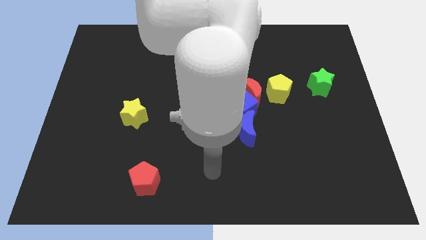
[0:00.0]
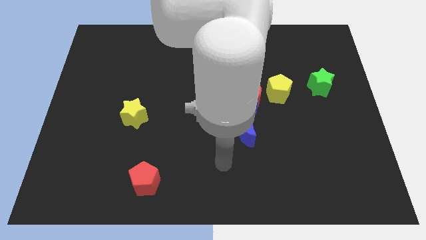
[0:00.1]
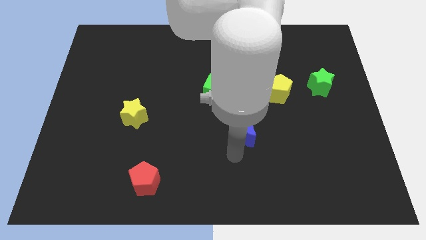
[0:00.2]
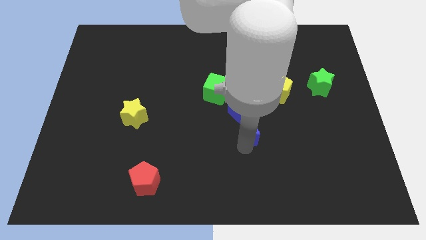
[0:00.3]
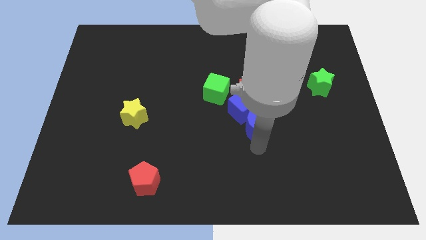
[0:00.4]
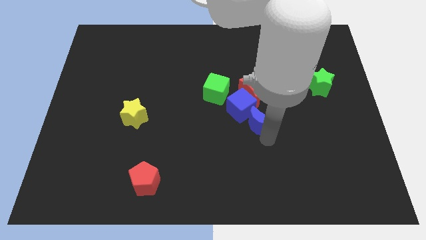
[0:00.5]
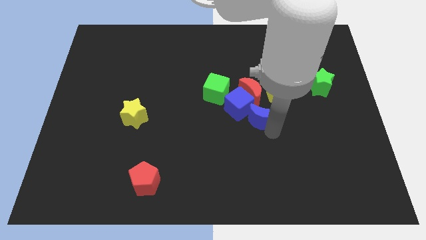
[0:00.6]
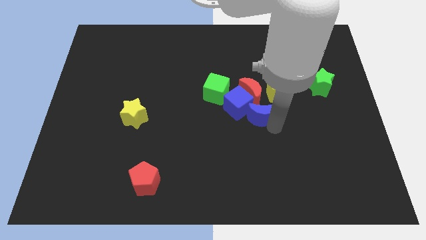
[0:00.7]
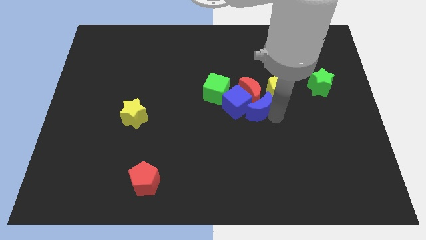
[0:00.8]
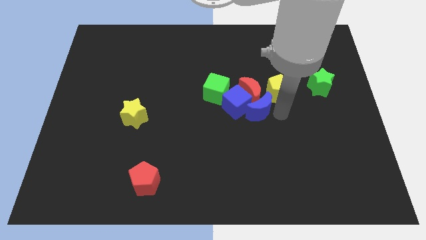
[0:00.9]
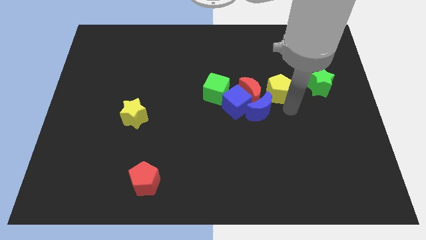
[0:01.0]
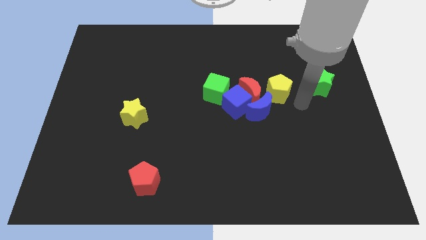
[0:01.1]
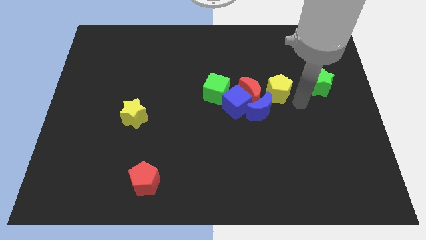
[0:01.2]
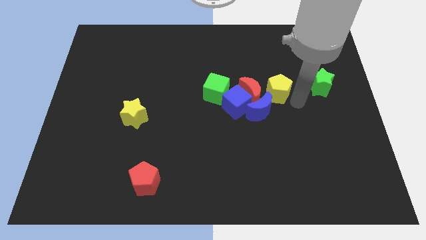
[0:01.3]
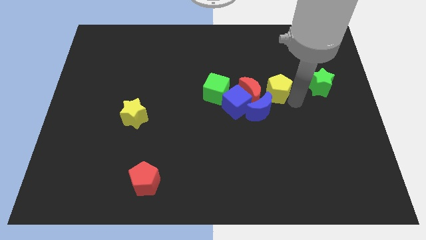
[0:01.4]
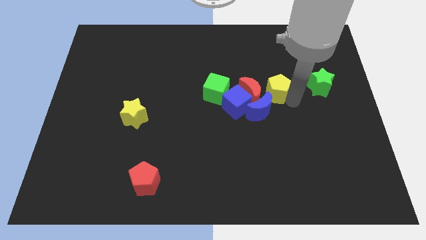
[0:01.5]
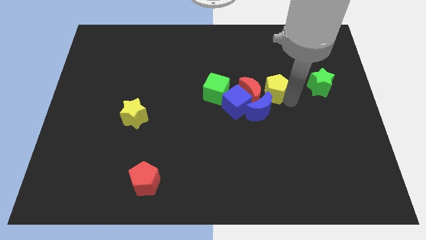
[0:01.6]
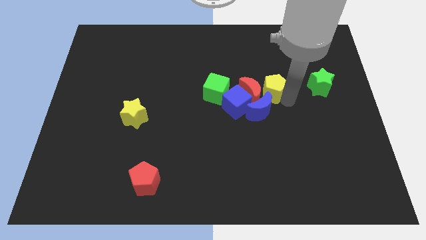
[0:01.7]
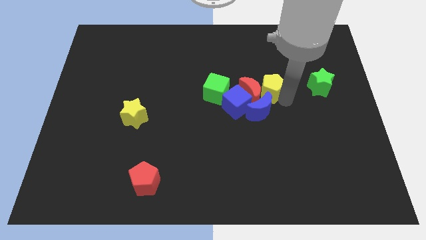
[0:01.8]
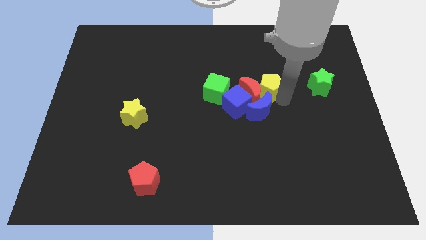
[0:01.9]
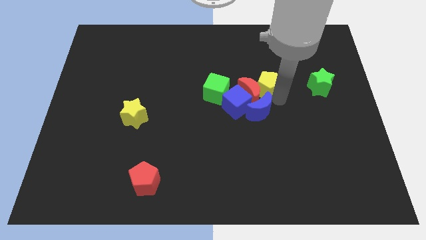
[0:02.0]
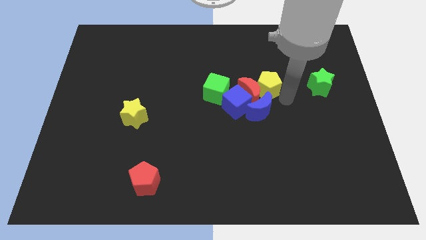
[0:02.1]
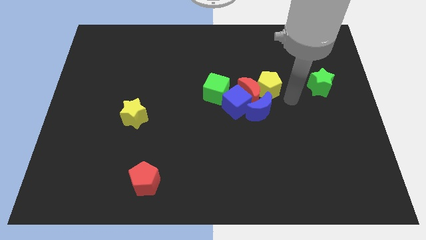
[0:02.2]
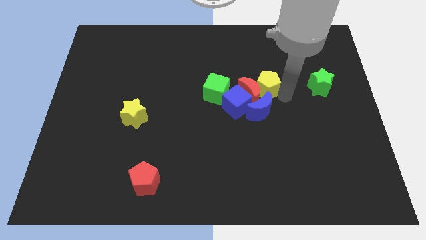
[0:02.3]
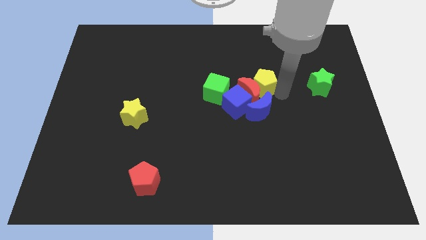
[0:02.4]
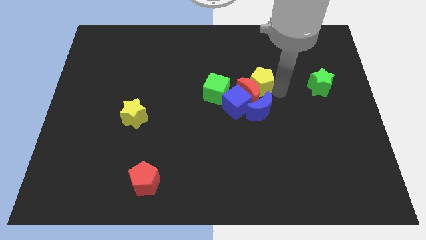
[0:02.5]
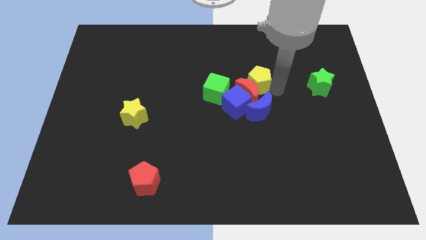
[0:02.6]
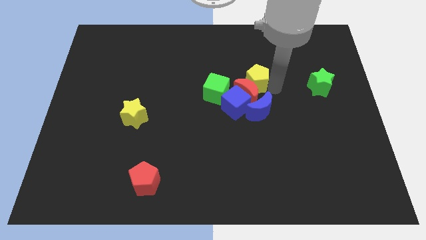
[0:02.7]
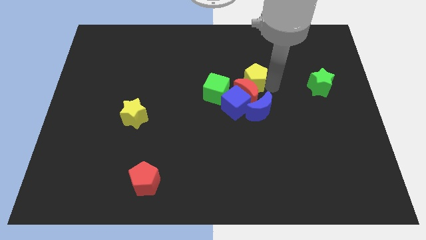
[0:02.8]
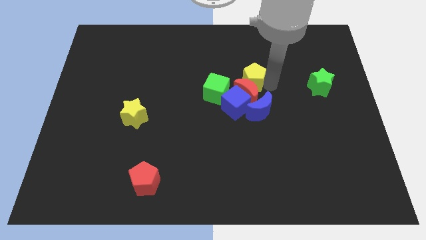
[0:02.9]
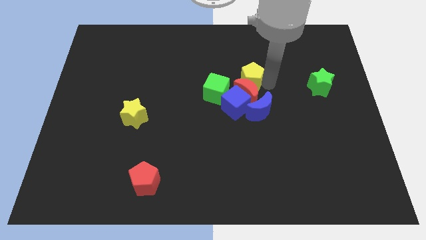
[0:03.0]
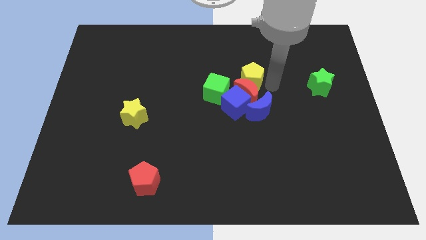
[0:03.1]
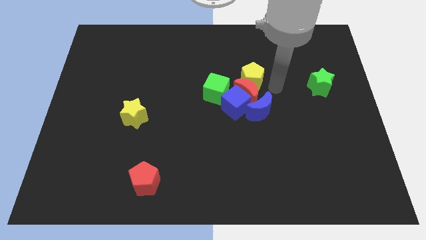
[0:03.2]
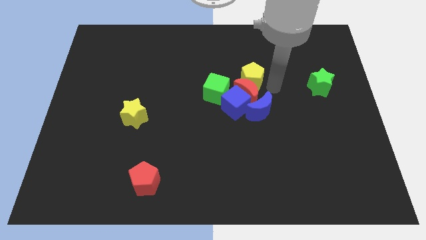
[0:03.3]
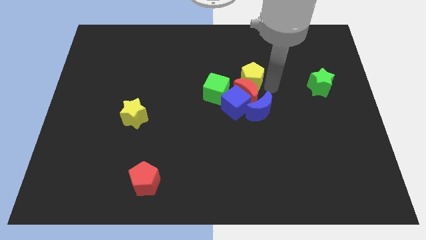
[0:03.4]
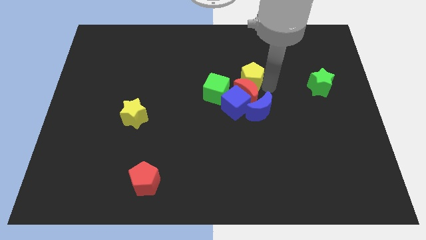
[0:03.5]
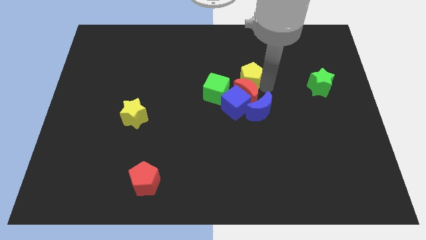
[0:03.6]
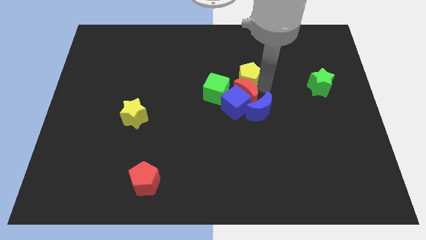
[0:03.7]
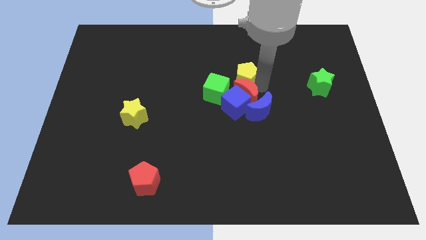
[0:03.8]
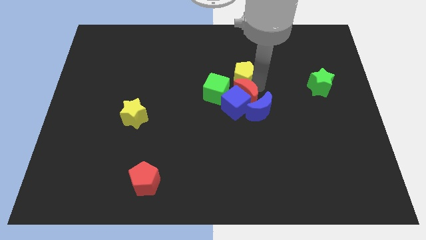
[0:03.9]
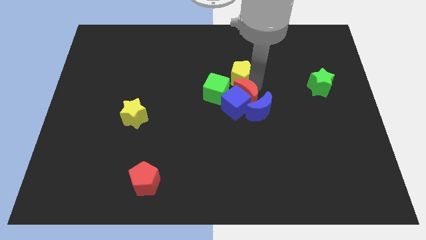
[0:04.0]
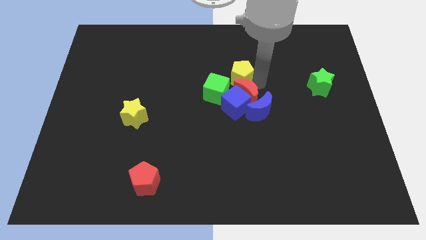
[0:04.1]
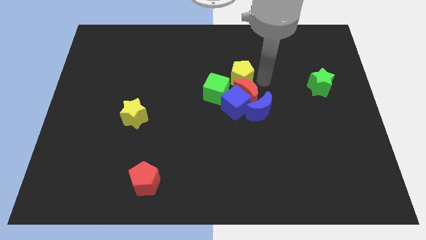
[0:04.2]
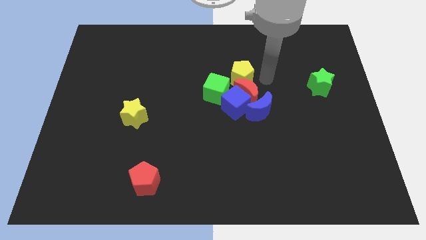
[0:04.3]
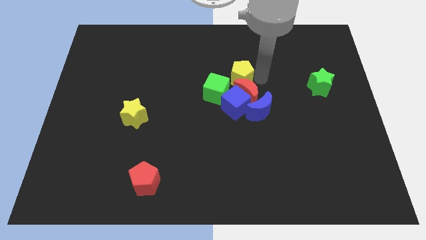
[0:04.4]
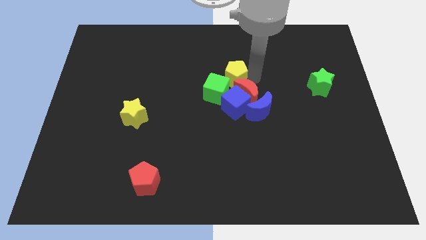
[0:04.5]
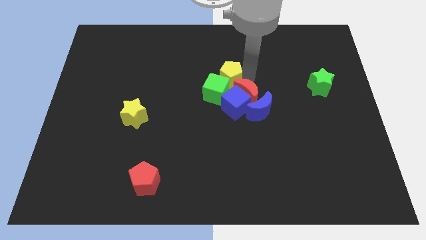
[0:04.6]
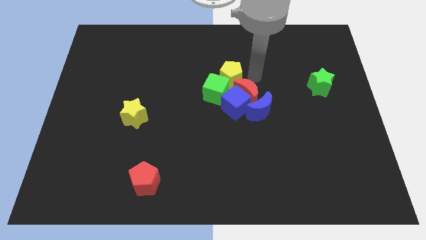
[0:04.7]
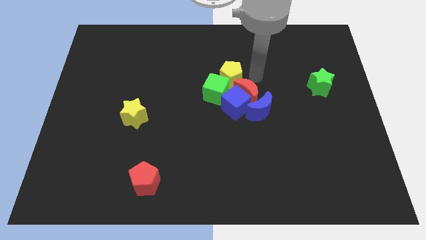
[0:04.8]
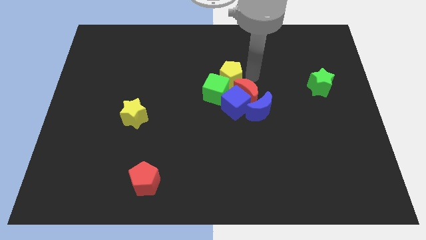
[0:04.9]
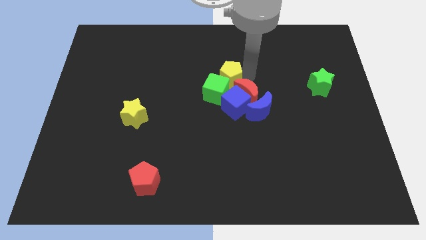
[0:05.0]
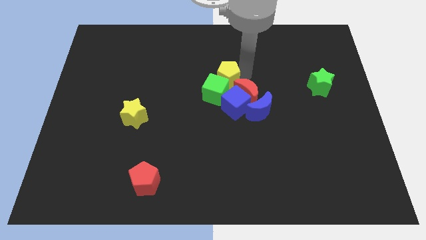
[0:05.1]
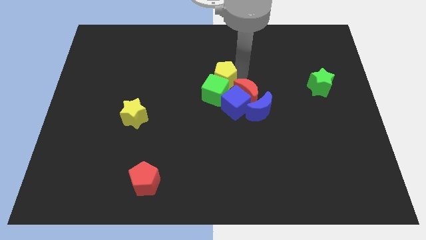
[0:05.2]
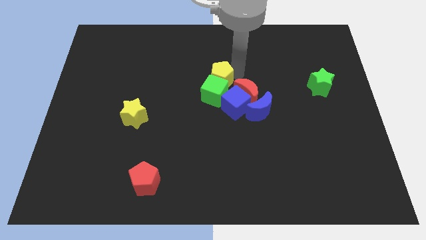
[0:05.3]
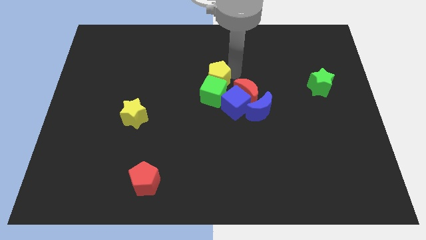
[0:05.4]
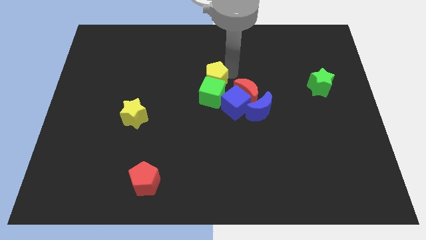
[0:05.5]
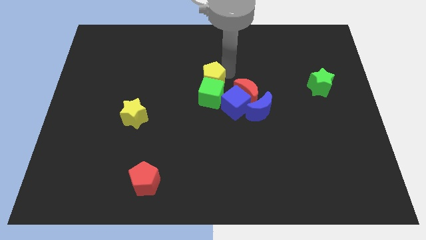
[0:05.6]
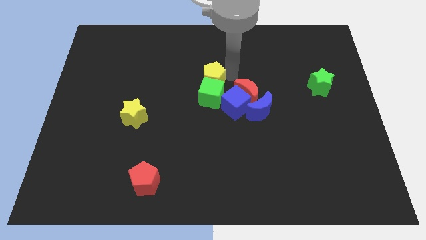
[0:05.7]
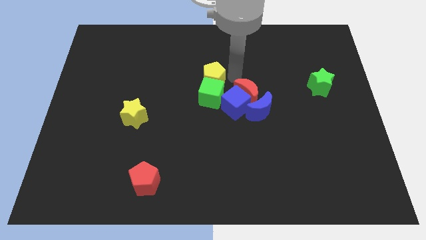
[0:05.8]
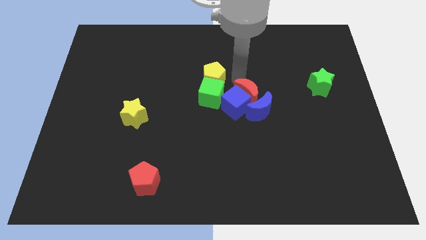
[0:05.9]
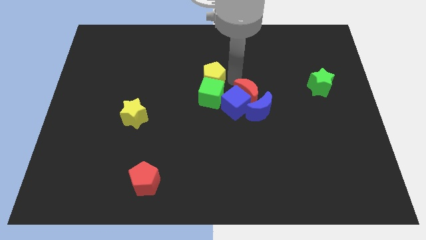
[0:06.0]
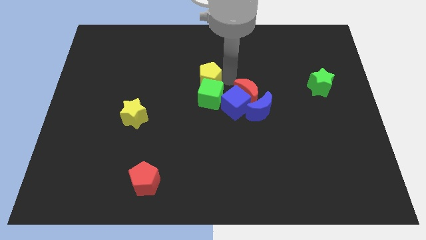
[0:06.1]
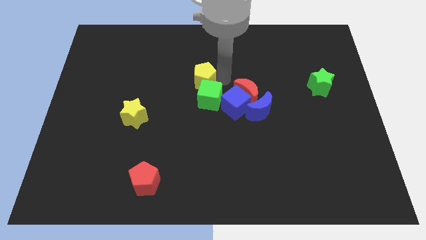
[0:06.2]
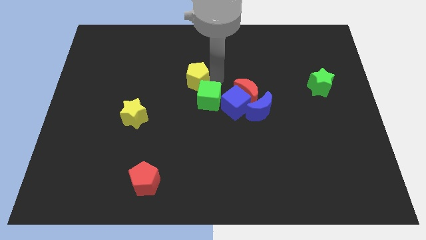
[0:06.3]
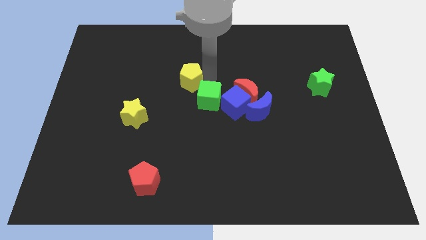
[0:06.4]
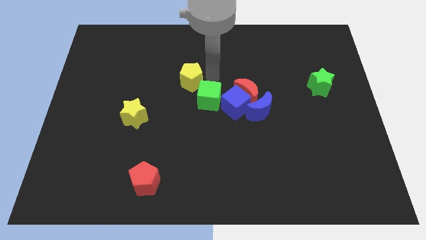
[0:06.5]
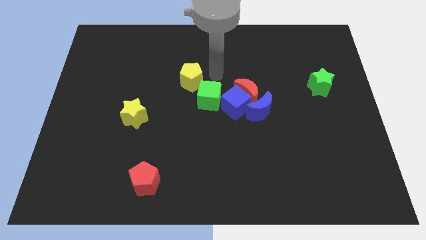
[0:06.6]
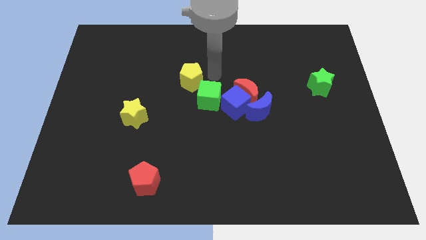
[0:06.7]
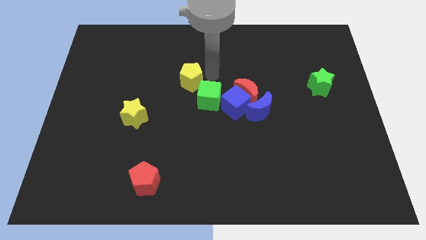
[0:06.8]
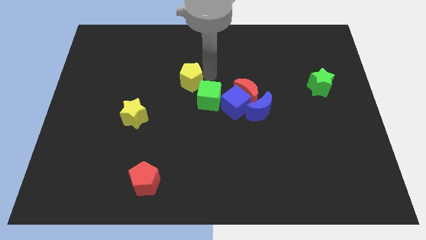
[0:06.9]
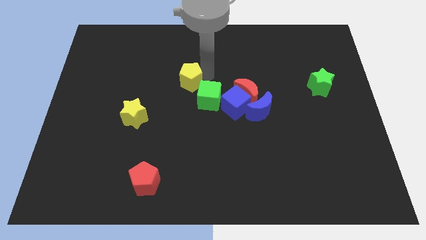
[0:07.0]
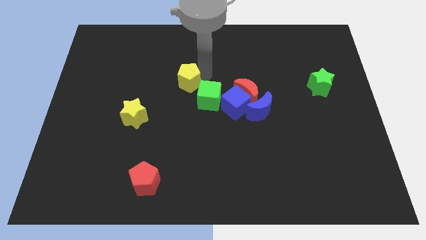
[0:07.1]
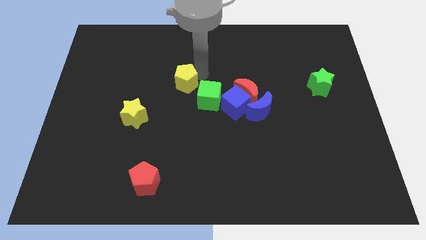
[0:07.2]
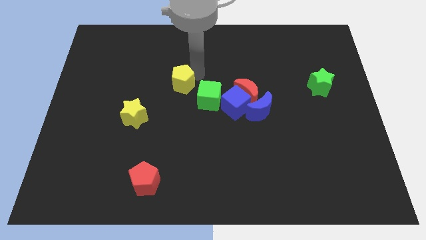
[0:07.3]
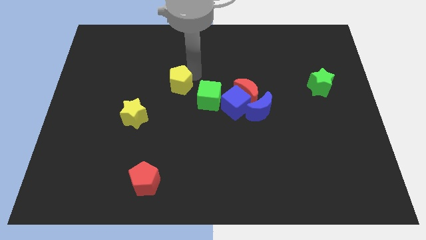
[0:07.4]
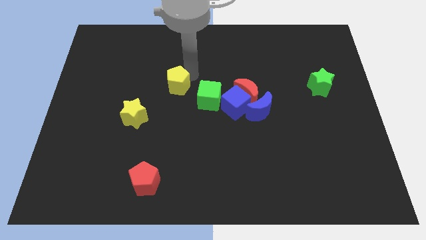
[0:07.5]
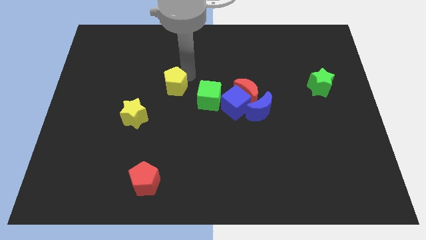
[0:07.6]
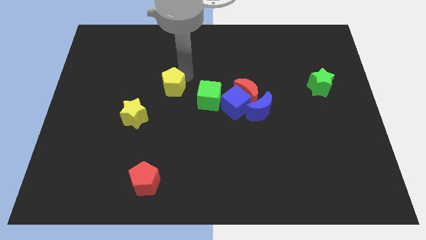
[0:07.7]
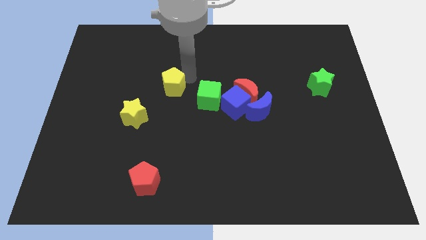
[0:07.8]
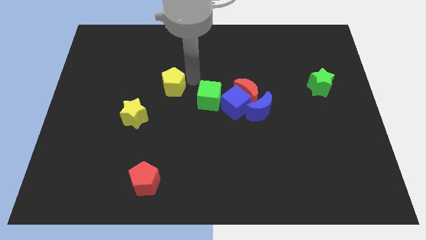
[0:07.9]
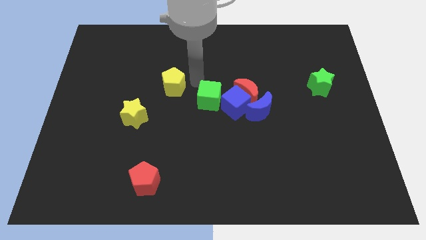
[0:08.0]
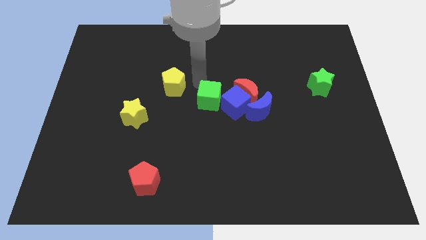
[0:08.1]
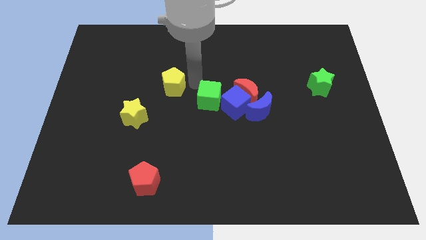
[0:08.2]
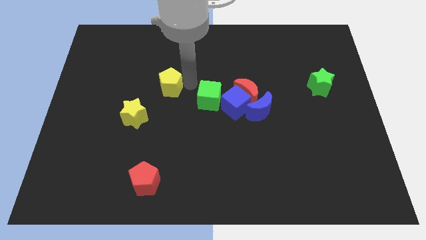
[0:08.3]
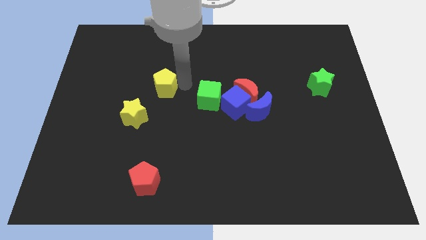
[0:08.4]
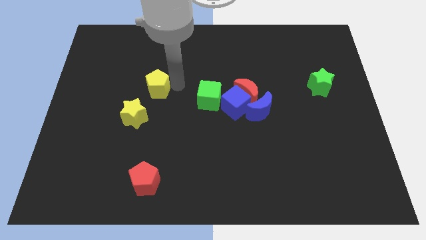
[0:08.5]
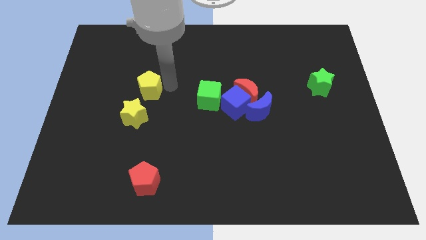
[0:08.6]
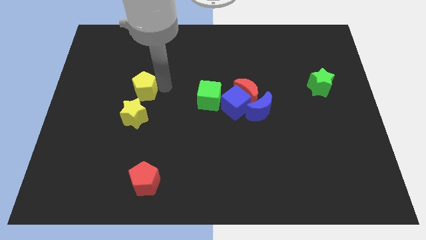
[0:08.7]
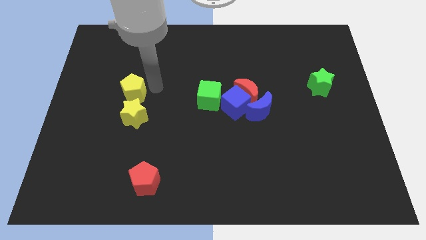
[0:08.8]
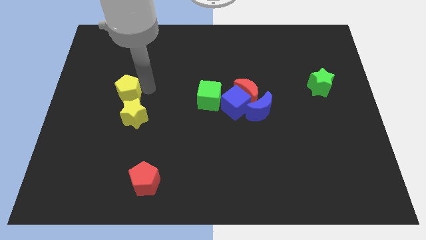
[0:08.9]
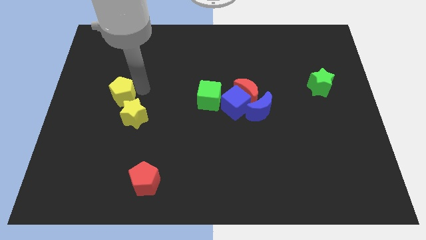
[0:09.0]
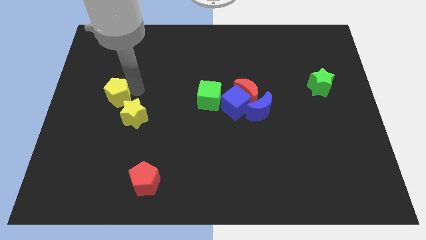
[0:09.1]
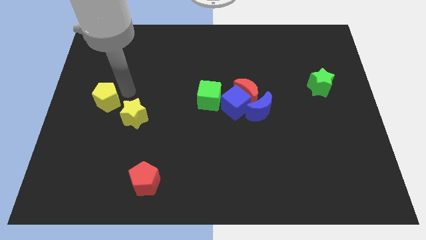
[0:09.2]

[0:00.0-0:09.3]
slide the yellow pentagon to the left side of the yellow star
